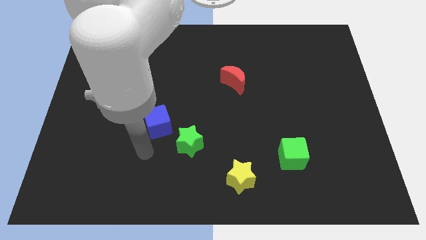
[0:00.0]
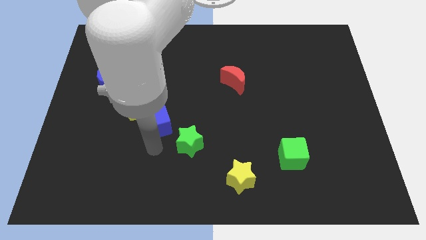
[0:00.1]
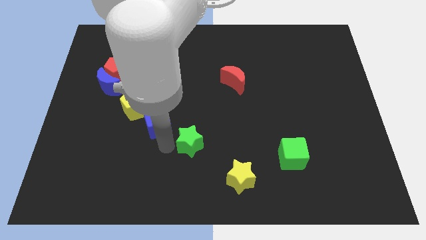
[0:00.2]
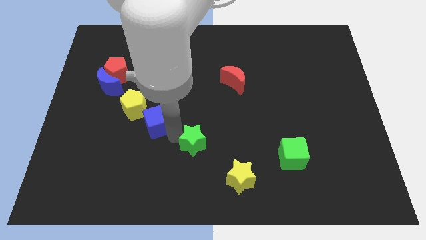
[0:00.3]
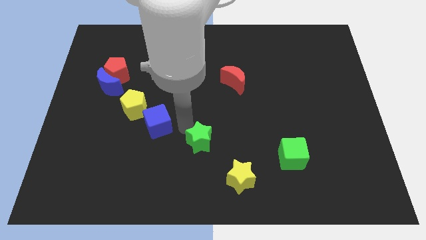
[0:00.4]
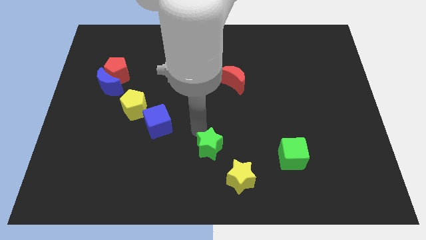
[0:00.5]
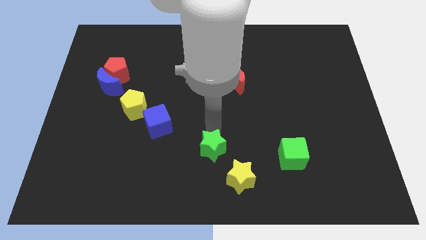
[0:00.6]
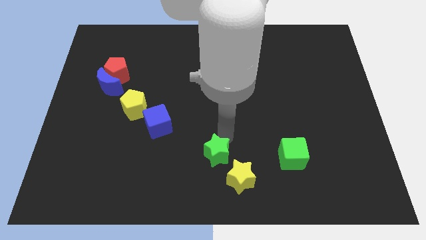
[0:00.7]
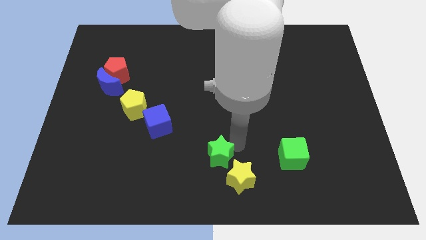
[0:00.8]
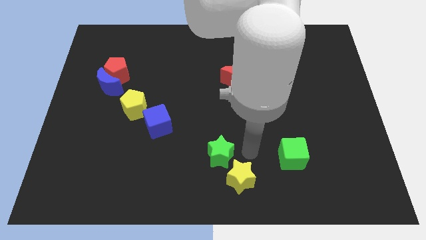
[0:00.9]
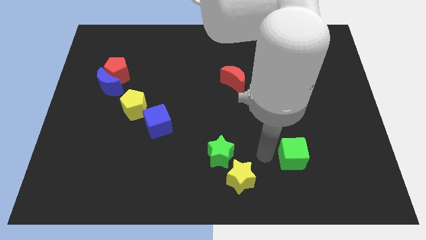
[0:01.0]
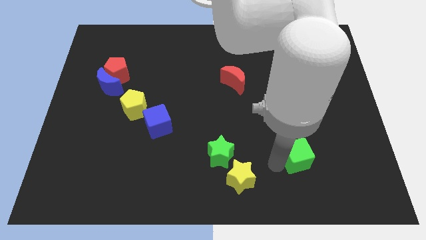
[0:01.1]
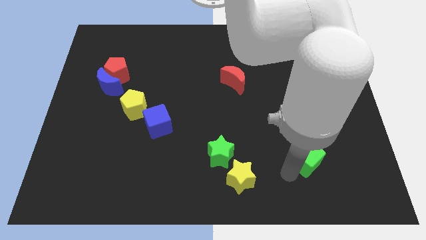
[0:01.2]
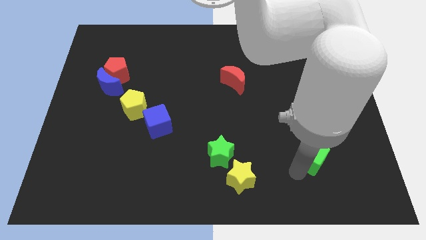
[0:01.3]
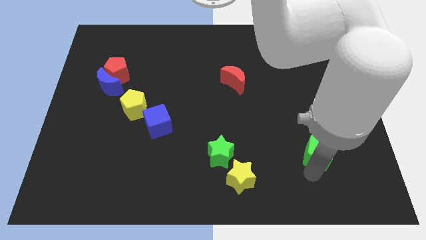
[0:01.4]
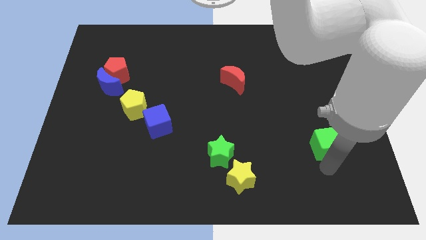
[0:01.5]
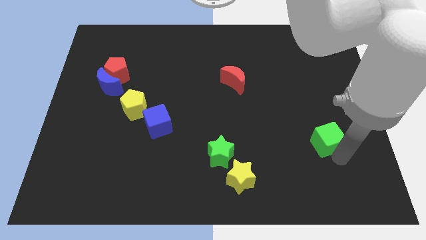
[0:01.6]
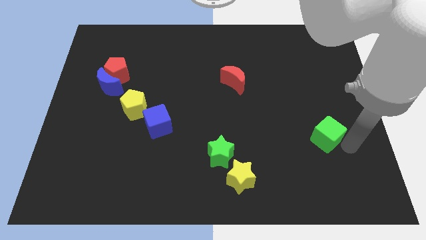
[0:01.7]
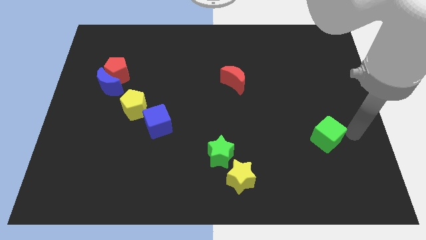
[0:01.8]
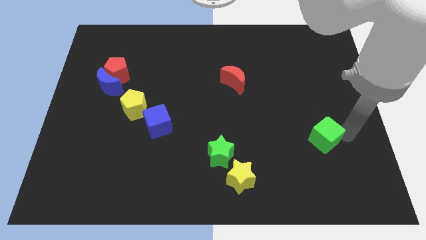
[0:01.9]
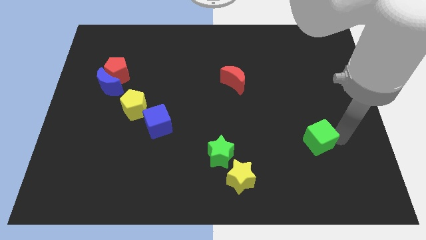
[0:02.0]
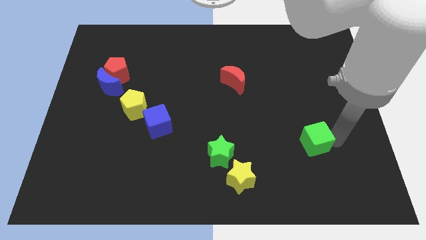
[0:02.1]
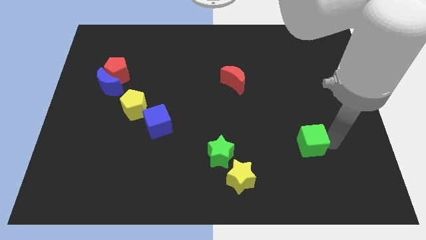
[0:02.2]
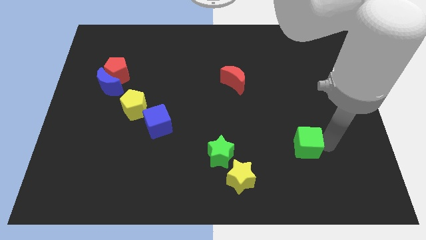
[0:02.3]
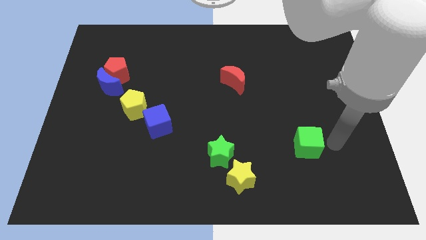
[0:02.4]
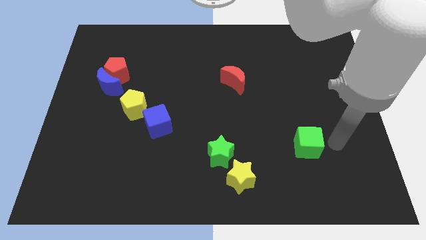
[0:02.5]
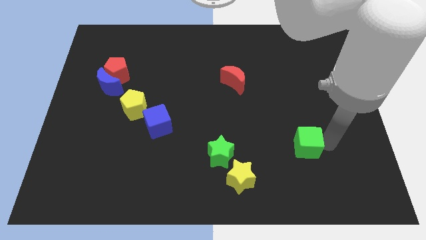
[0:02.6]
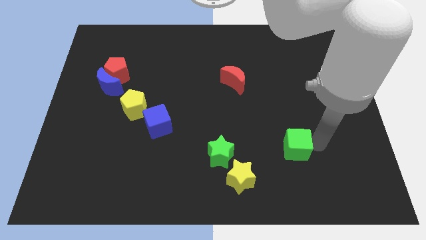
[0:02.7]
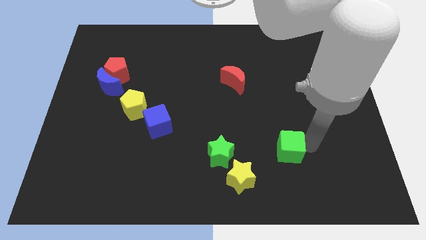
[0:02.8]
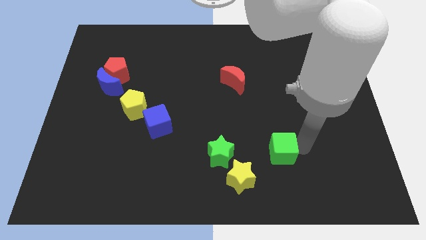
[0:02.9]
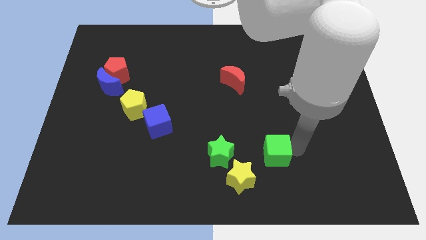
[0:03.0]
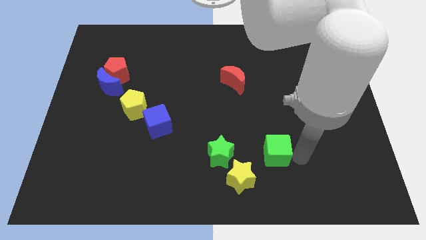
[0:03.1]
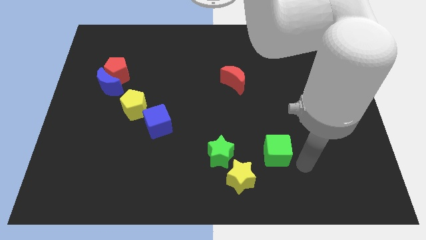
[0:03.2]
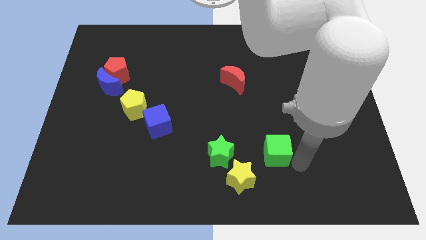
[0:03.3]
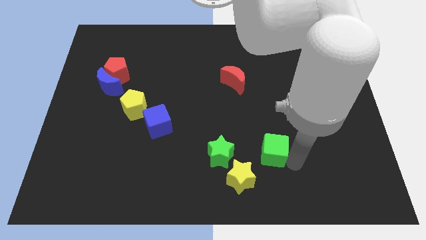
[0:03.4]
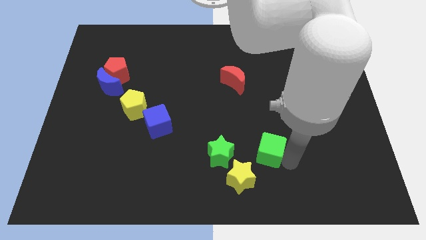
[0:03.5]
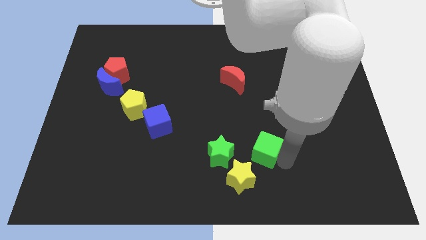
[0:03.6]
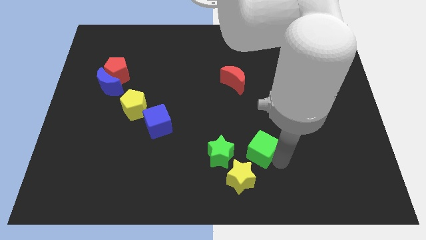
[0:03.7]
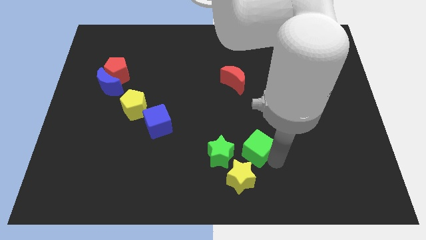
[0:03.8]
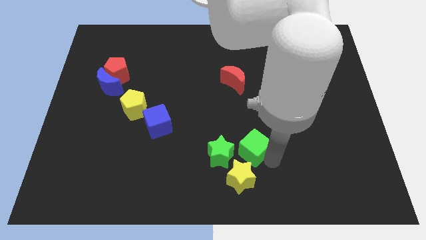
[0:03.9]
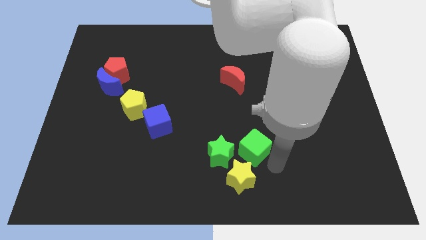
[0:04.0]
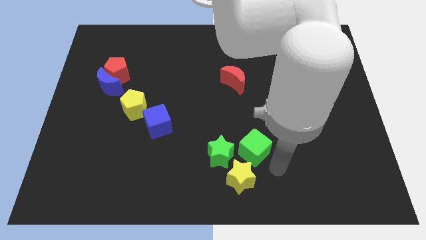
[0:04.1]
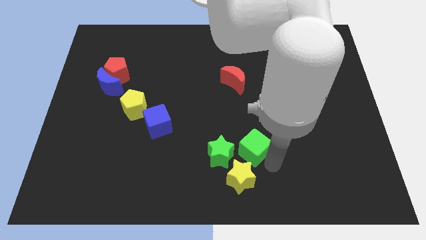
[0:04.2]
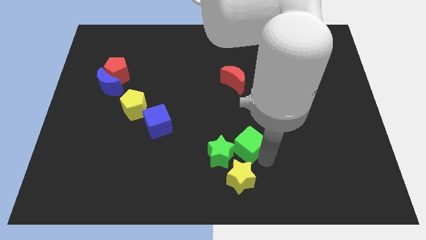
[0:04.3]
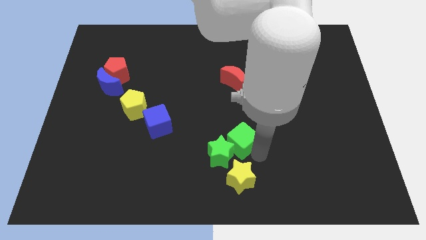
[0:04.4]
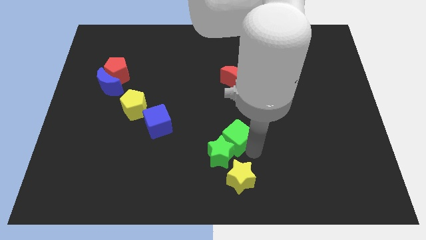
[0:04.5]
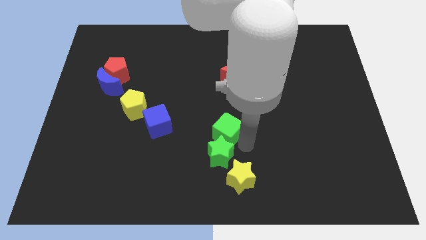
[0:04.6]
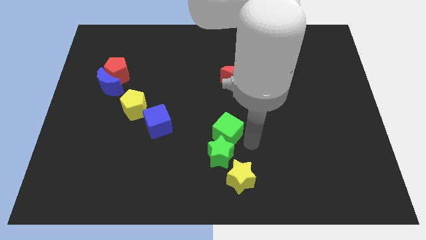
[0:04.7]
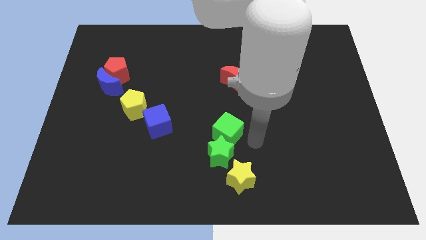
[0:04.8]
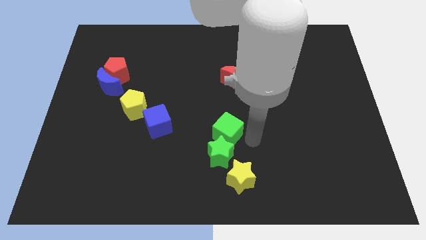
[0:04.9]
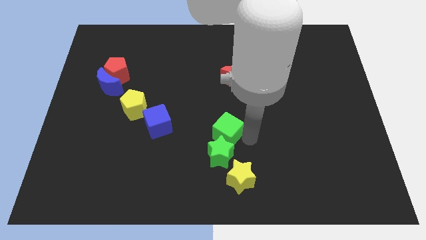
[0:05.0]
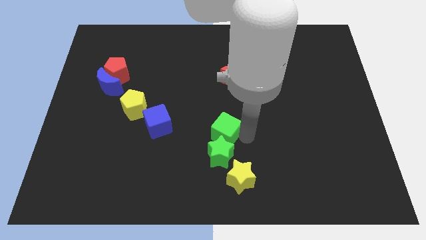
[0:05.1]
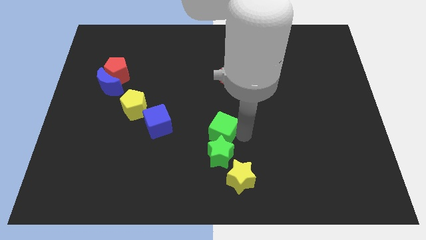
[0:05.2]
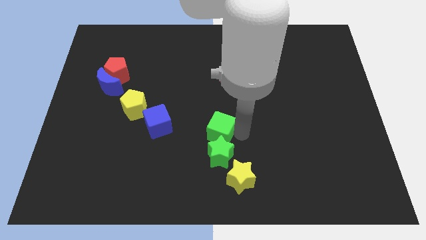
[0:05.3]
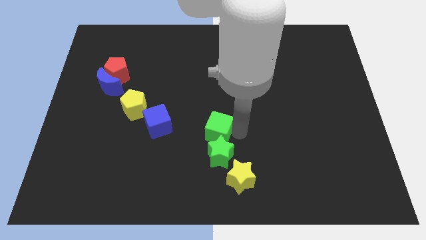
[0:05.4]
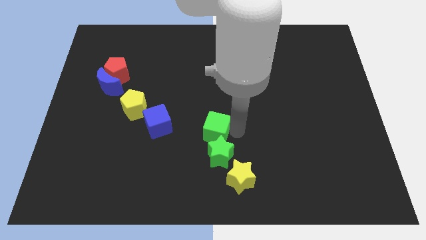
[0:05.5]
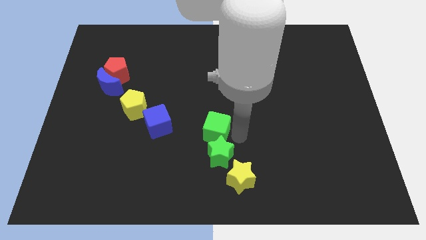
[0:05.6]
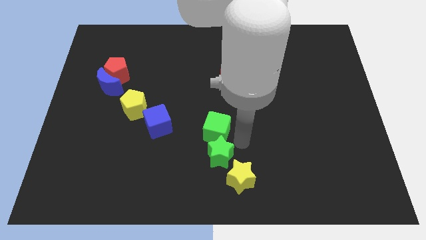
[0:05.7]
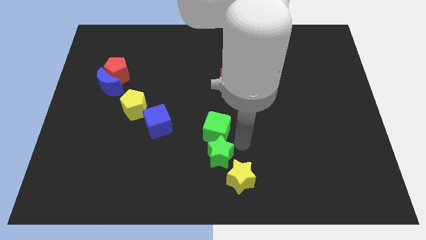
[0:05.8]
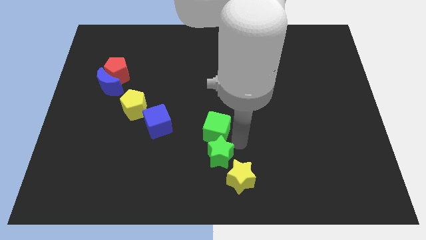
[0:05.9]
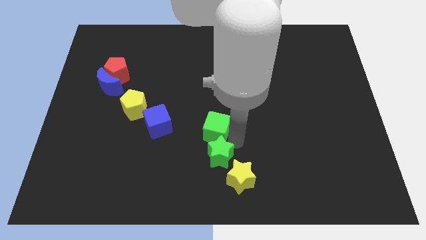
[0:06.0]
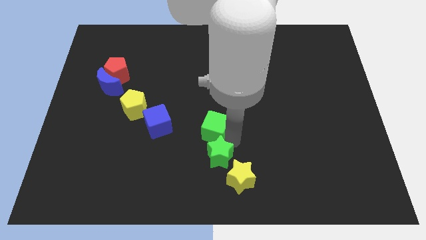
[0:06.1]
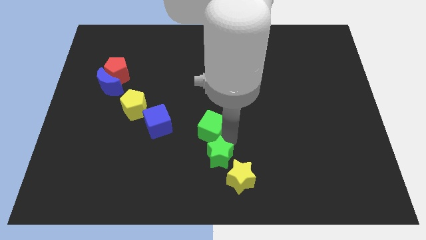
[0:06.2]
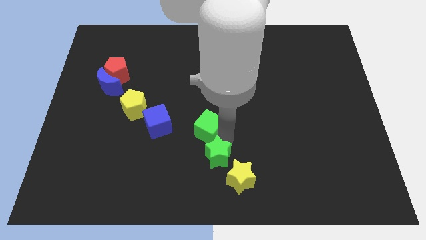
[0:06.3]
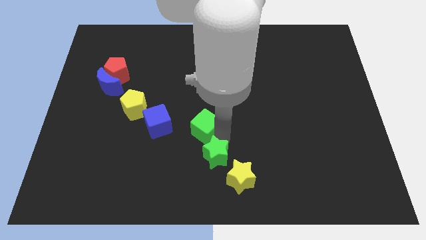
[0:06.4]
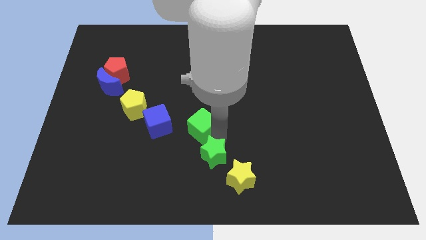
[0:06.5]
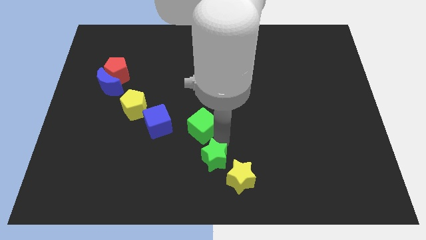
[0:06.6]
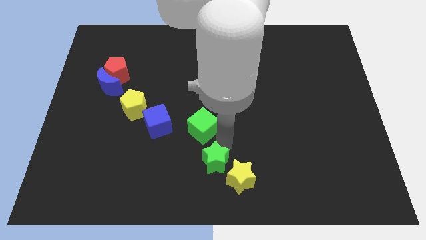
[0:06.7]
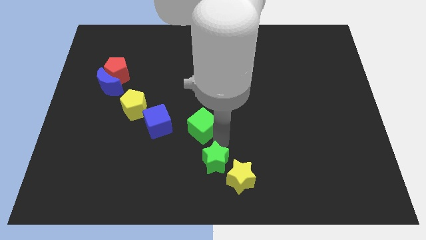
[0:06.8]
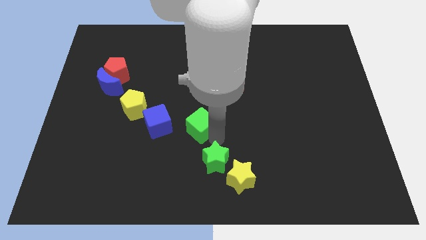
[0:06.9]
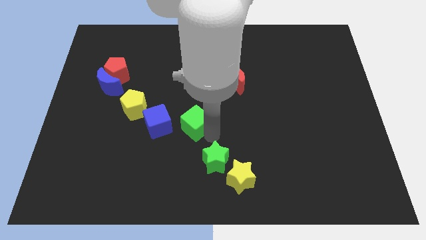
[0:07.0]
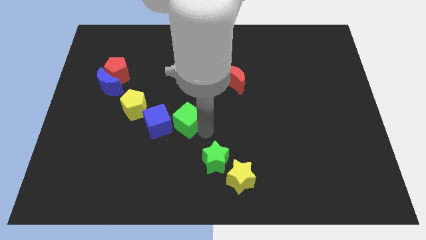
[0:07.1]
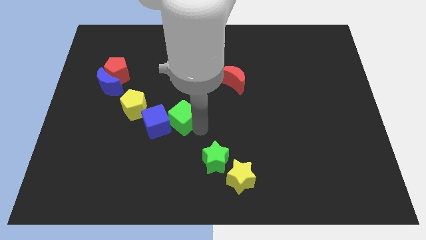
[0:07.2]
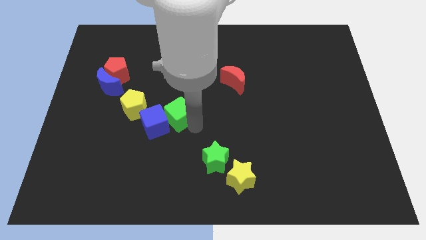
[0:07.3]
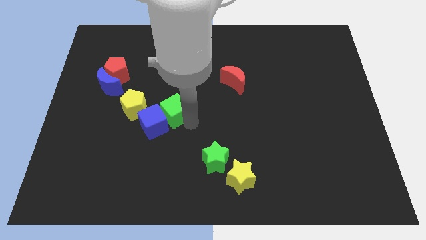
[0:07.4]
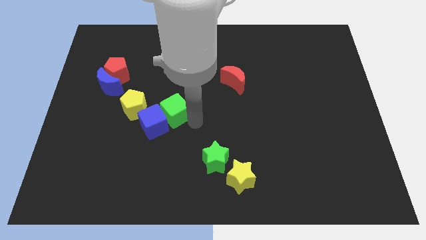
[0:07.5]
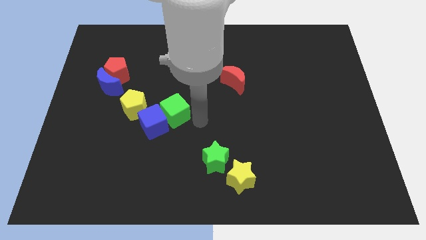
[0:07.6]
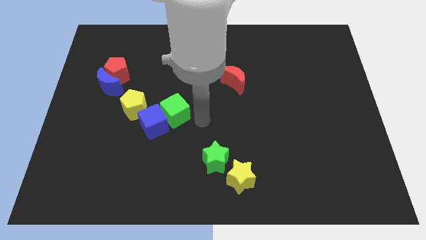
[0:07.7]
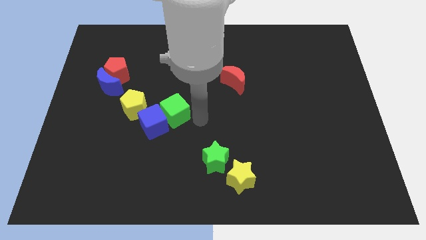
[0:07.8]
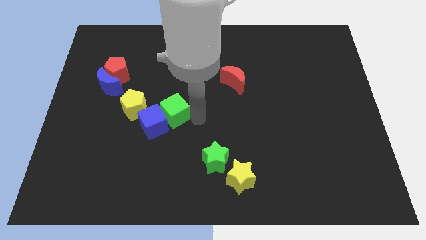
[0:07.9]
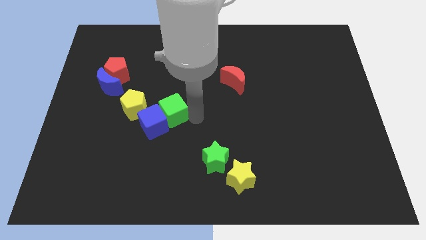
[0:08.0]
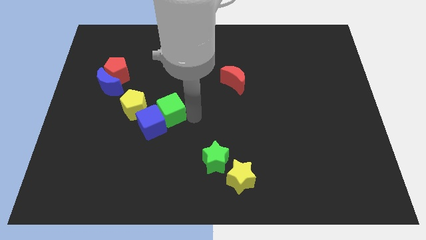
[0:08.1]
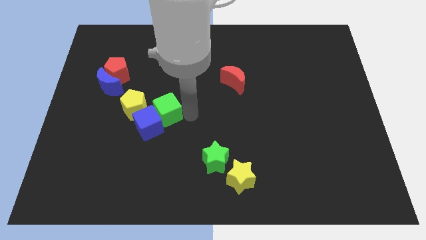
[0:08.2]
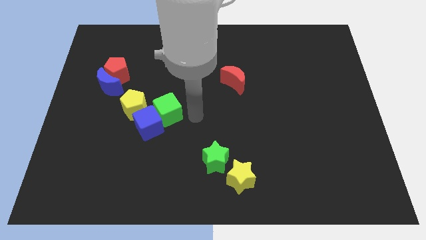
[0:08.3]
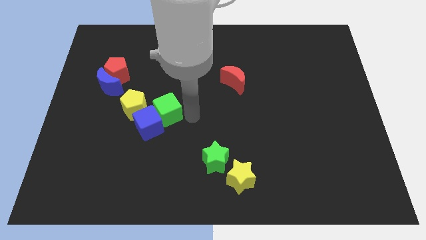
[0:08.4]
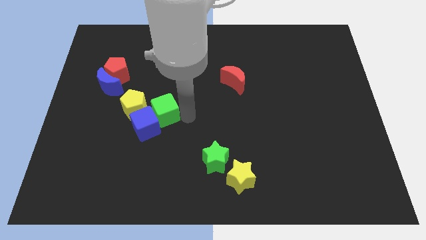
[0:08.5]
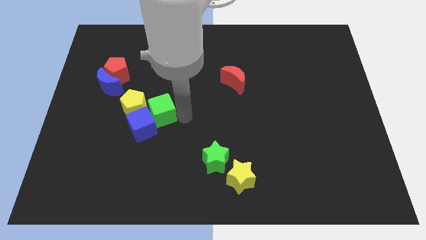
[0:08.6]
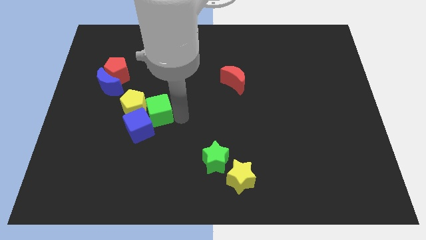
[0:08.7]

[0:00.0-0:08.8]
slide the green cube next to the yellow pentagon
